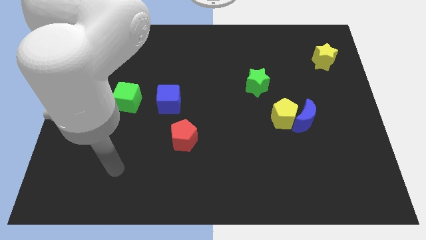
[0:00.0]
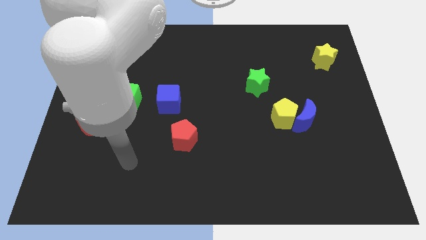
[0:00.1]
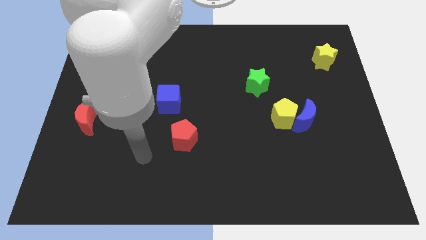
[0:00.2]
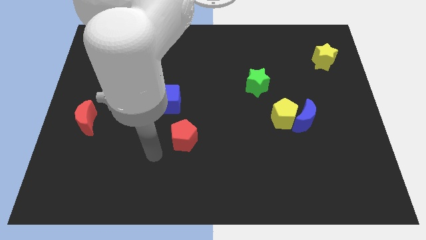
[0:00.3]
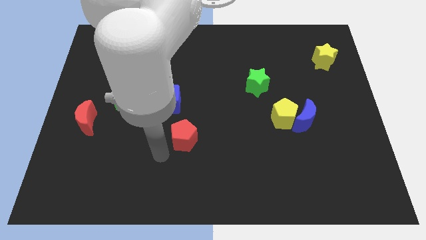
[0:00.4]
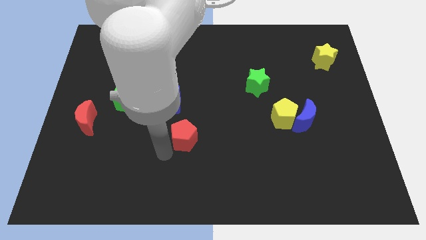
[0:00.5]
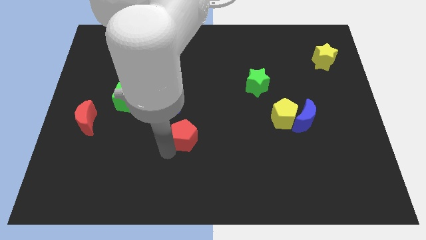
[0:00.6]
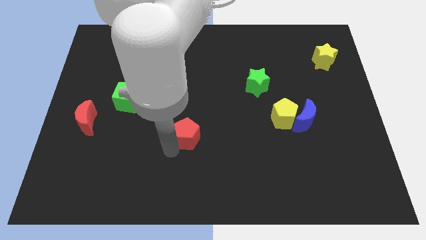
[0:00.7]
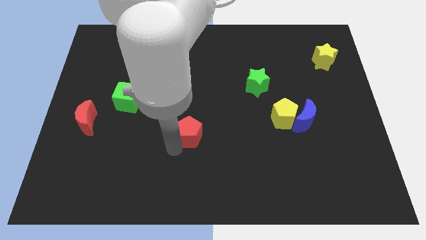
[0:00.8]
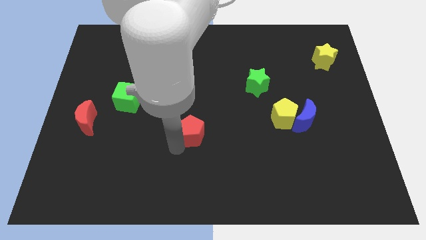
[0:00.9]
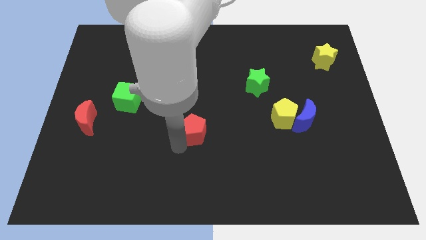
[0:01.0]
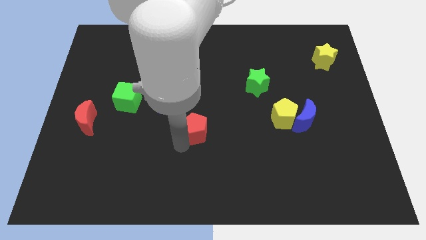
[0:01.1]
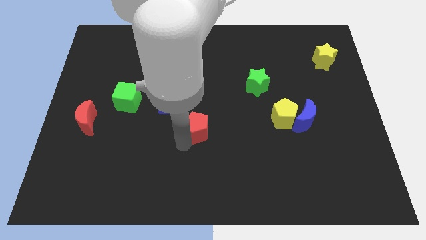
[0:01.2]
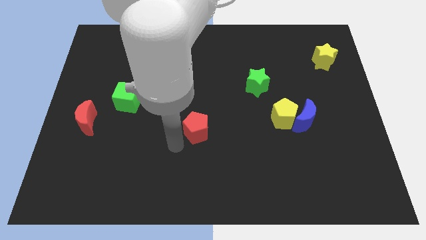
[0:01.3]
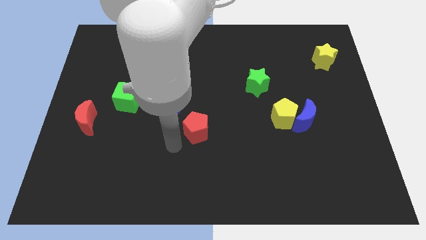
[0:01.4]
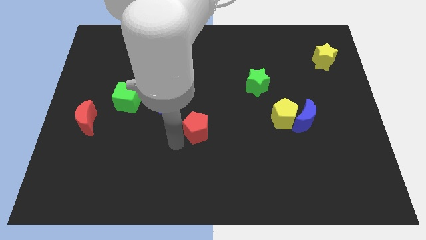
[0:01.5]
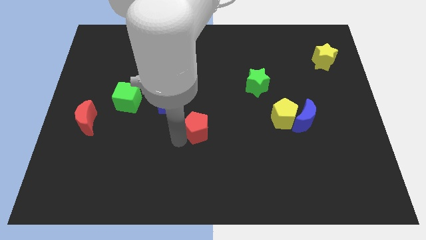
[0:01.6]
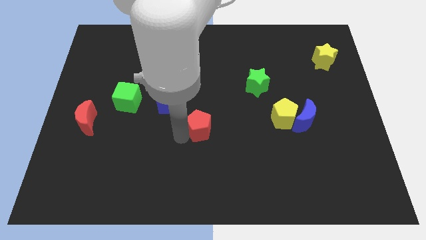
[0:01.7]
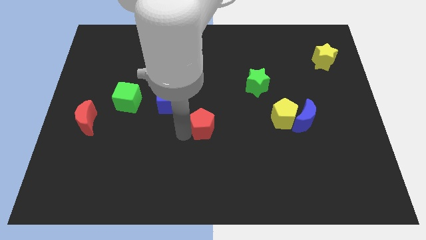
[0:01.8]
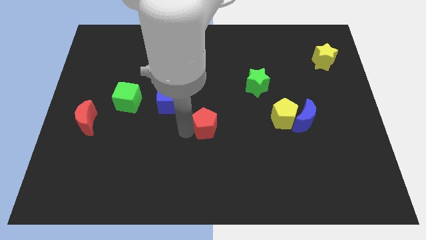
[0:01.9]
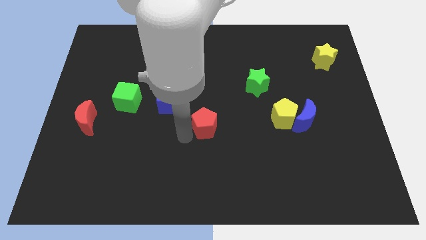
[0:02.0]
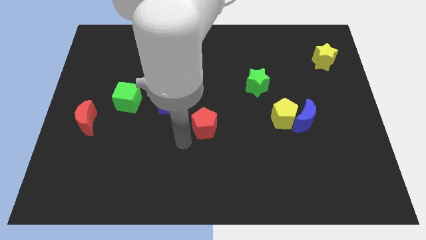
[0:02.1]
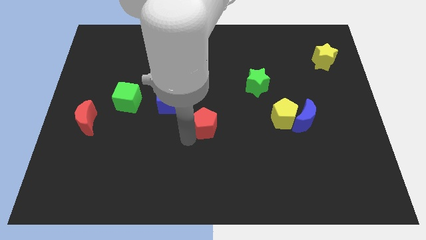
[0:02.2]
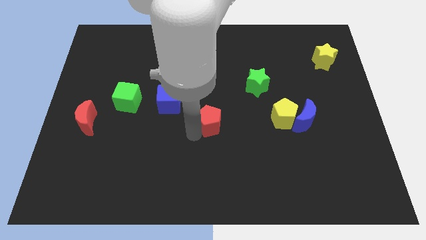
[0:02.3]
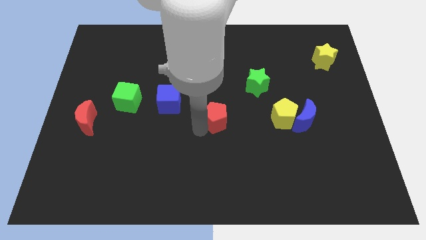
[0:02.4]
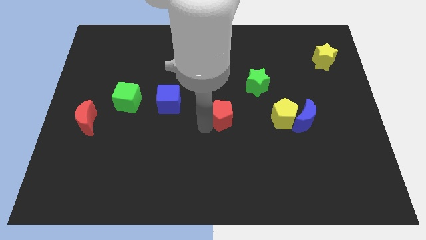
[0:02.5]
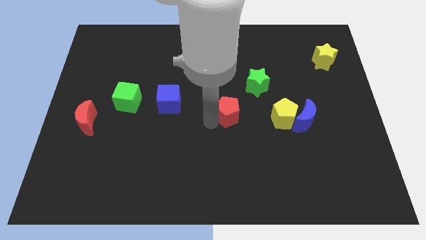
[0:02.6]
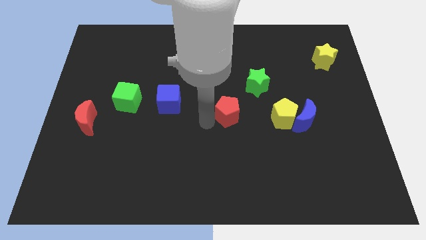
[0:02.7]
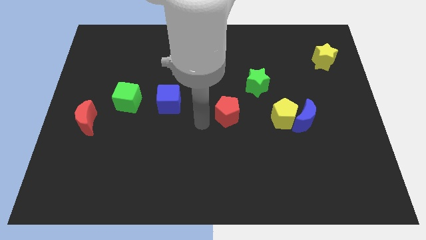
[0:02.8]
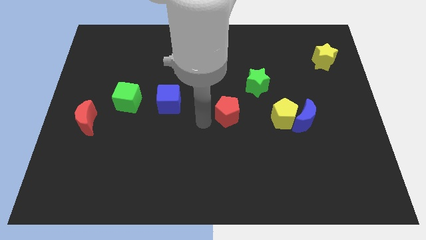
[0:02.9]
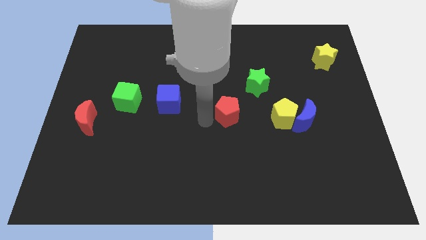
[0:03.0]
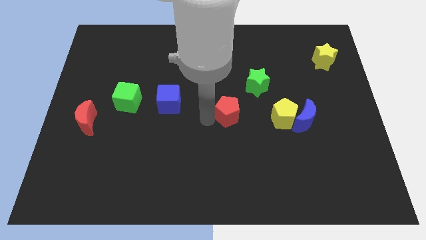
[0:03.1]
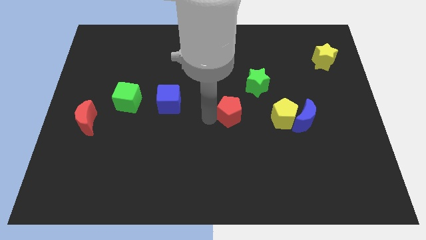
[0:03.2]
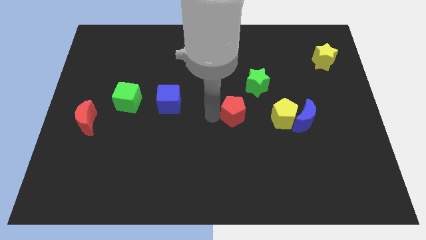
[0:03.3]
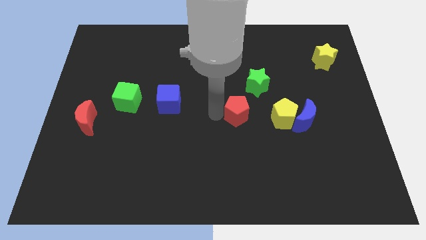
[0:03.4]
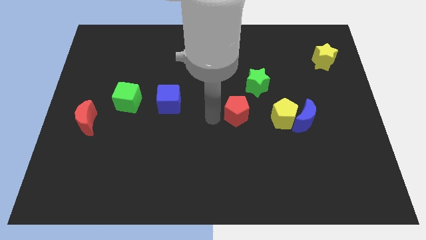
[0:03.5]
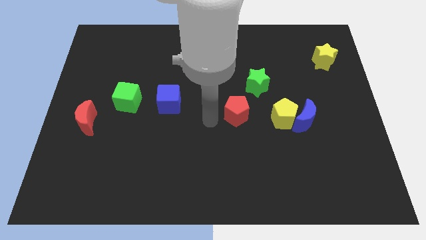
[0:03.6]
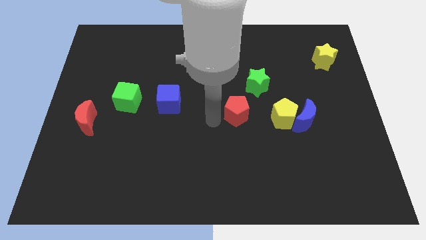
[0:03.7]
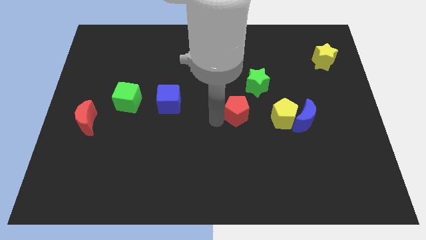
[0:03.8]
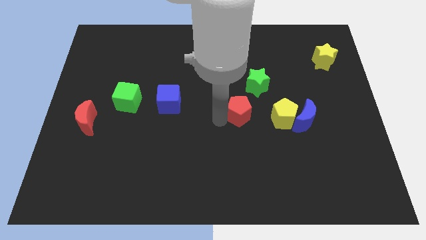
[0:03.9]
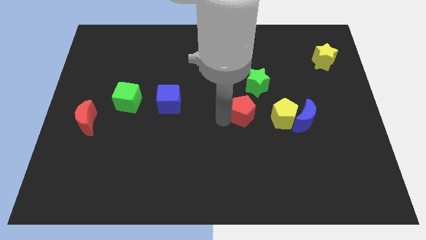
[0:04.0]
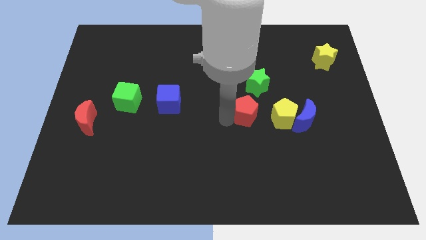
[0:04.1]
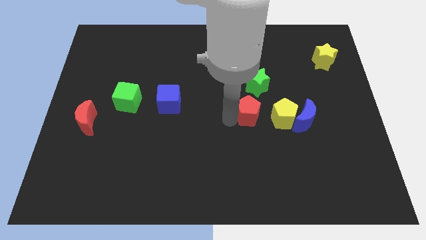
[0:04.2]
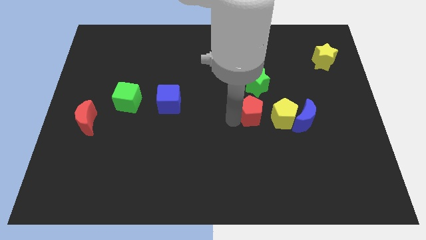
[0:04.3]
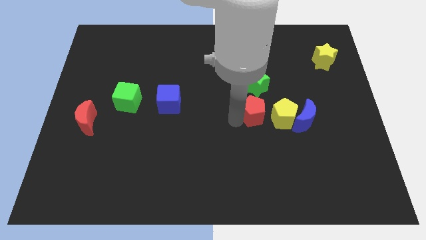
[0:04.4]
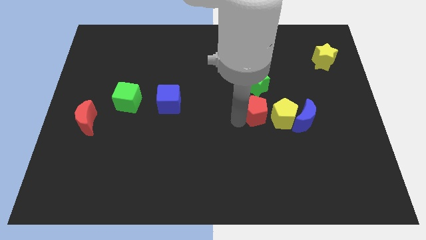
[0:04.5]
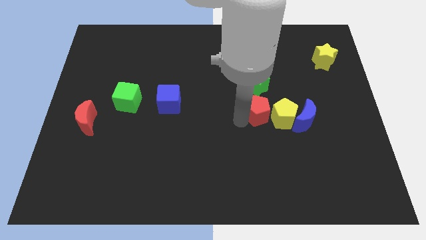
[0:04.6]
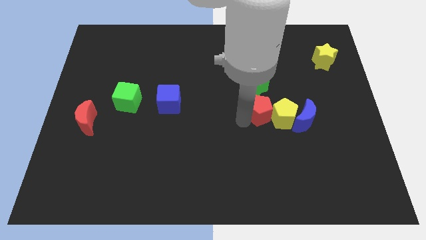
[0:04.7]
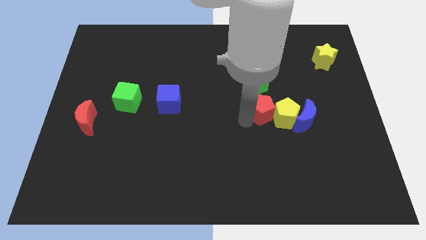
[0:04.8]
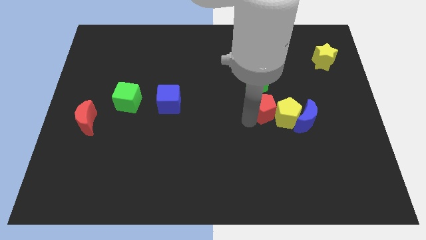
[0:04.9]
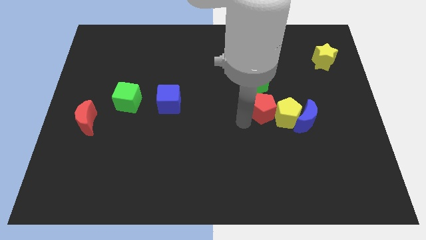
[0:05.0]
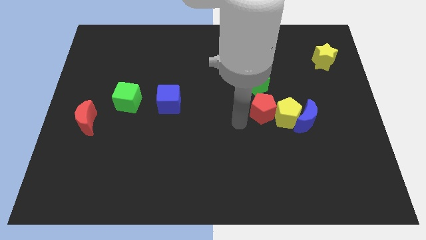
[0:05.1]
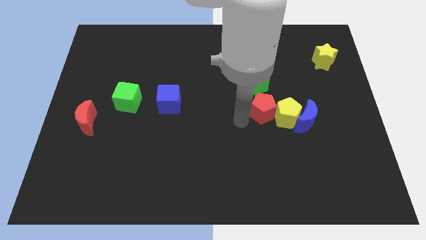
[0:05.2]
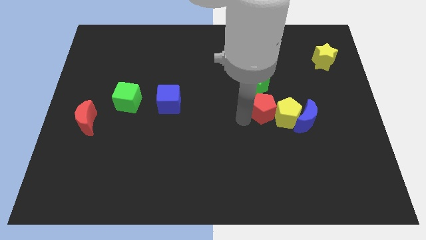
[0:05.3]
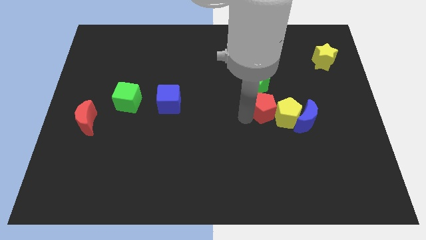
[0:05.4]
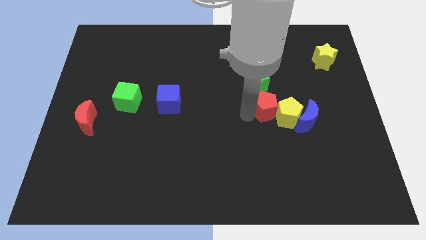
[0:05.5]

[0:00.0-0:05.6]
move the red pentagon to the bottom right side of the green star

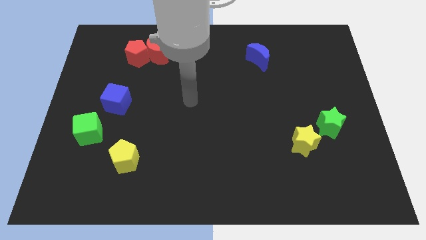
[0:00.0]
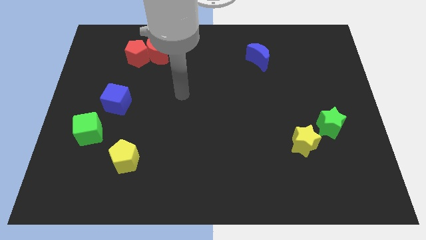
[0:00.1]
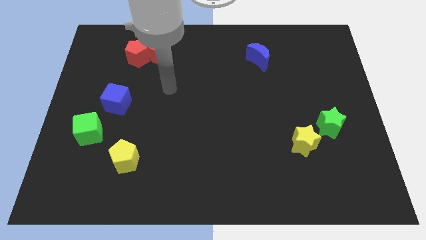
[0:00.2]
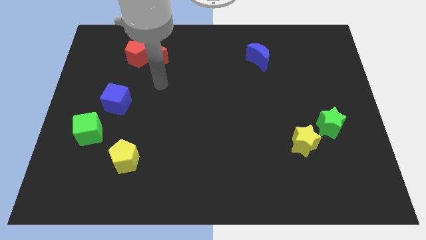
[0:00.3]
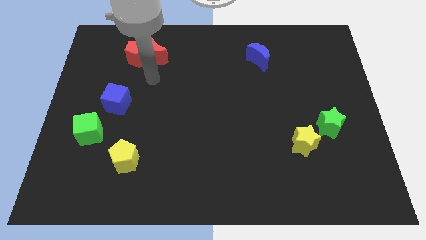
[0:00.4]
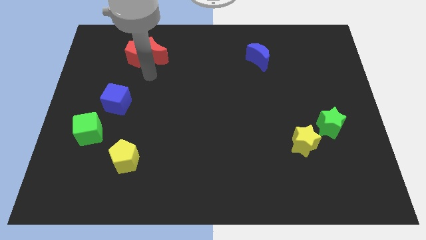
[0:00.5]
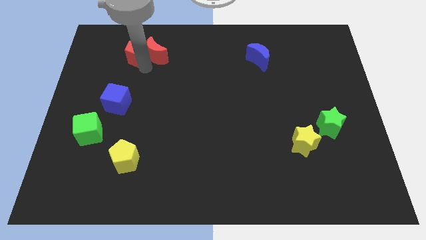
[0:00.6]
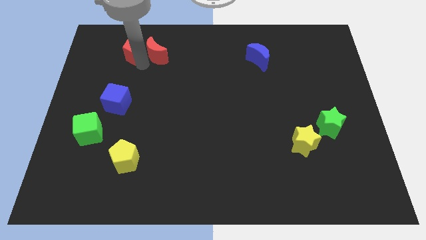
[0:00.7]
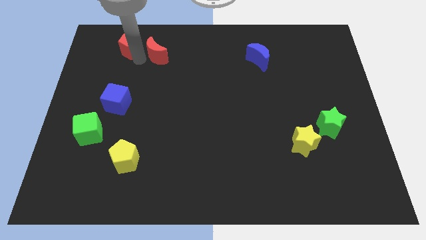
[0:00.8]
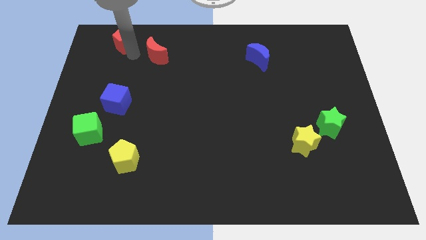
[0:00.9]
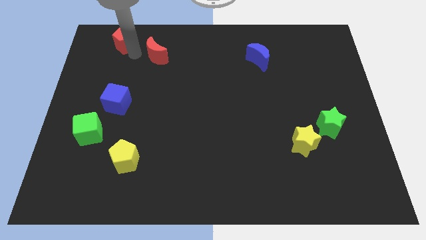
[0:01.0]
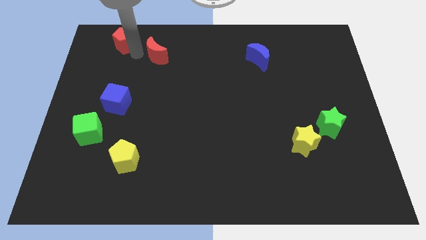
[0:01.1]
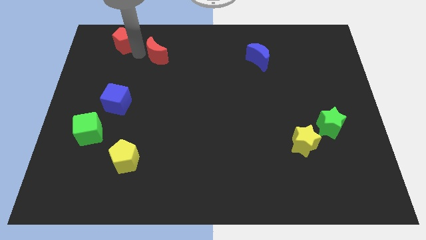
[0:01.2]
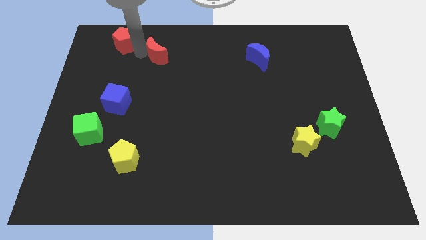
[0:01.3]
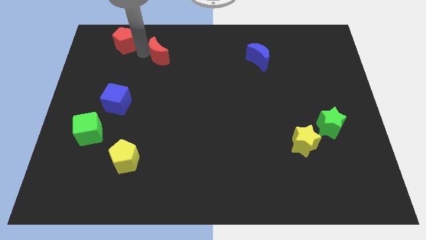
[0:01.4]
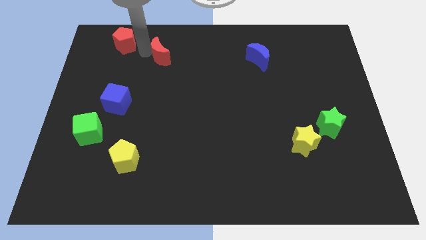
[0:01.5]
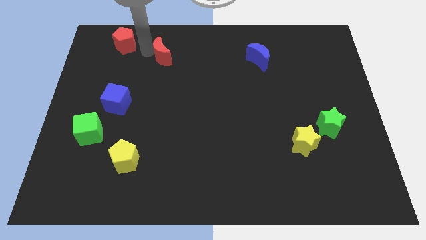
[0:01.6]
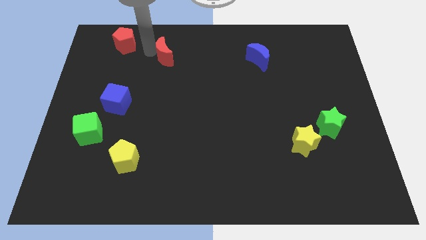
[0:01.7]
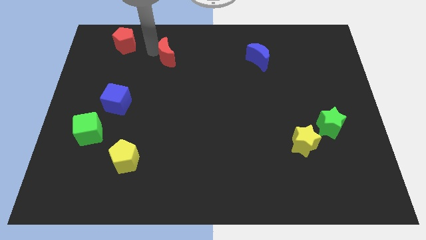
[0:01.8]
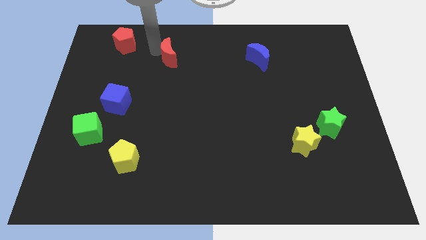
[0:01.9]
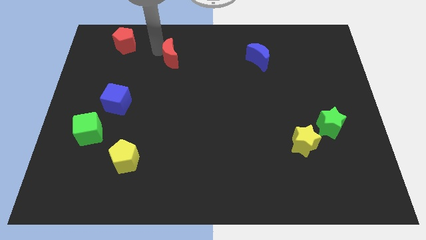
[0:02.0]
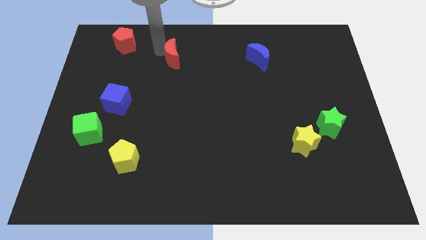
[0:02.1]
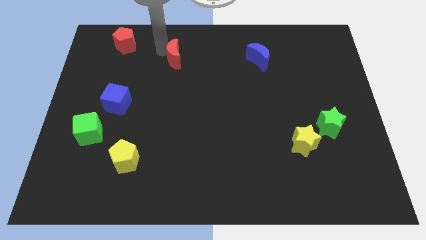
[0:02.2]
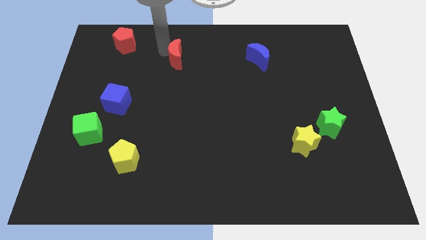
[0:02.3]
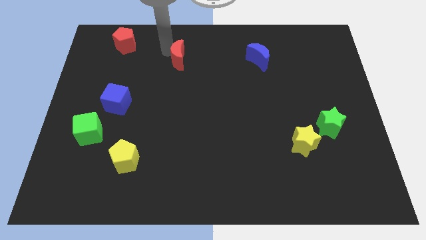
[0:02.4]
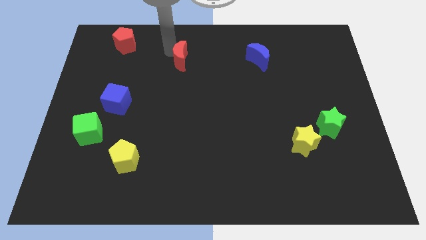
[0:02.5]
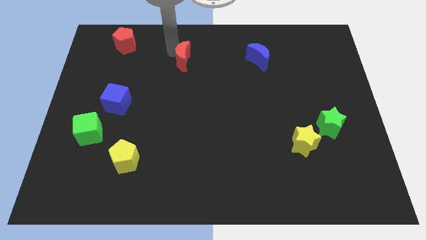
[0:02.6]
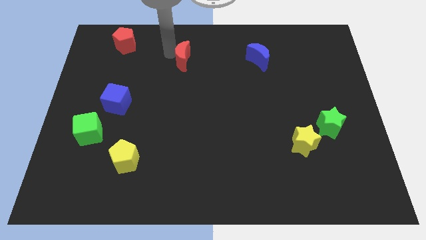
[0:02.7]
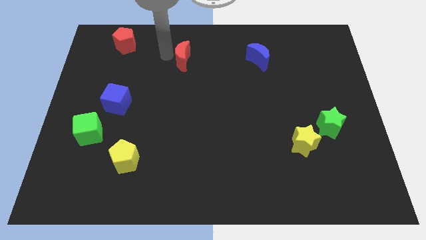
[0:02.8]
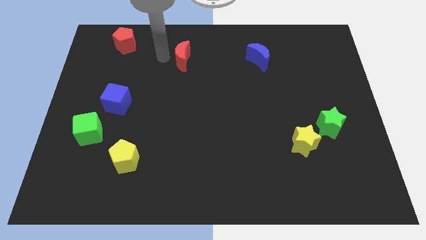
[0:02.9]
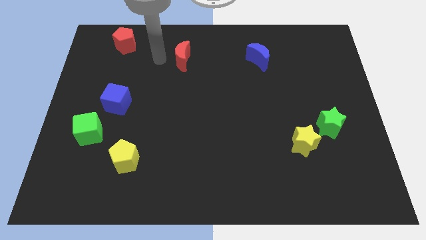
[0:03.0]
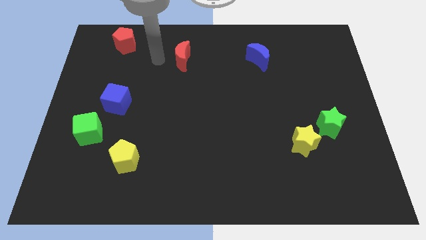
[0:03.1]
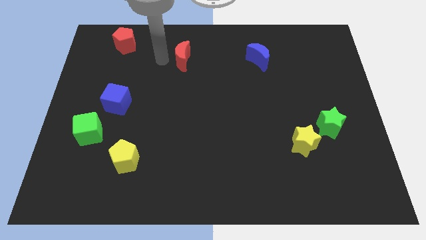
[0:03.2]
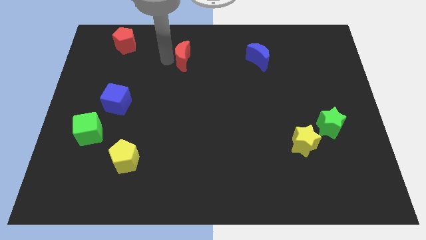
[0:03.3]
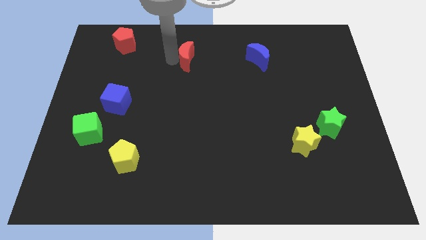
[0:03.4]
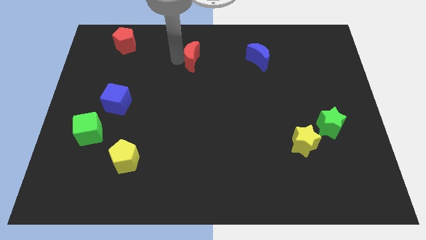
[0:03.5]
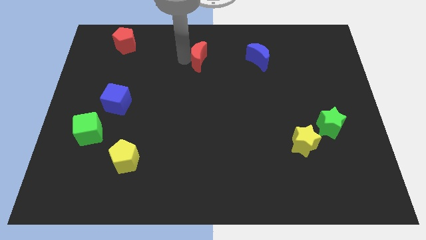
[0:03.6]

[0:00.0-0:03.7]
move the red moon just left of the blue moon
